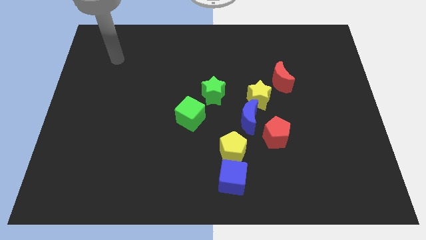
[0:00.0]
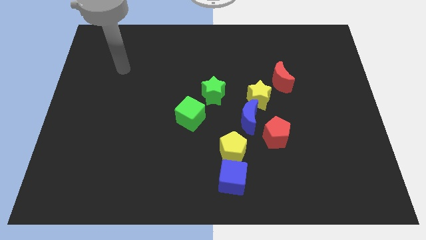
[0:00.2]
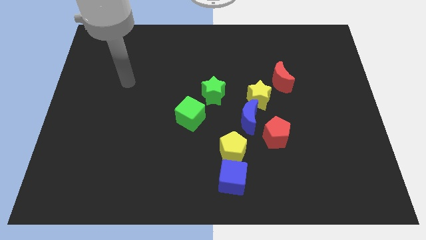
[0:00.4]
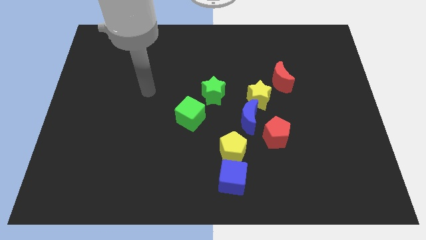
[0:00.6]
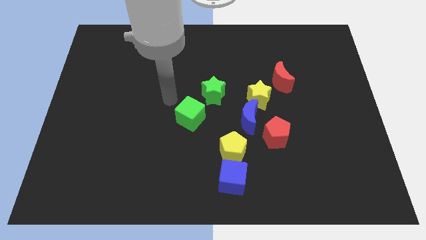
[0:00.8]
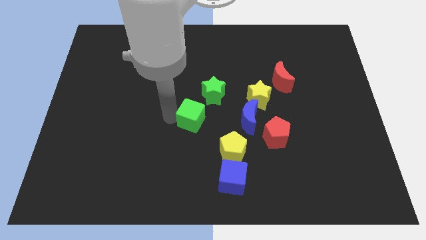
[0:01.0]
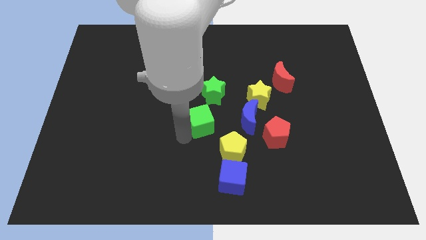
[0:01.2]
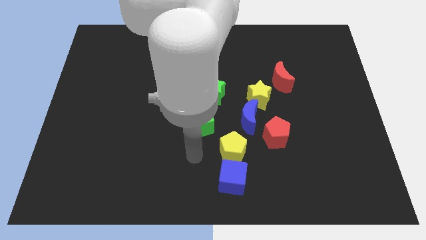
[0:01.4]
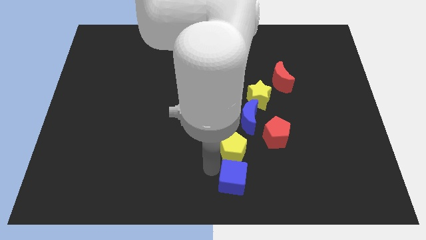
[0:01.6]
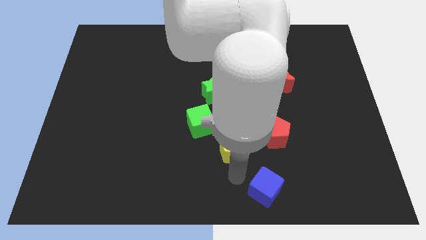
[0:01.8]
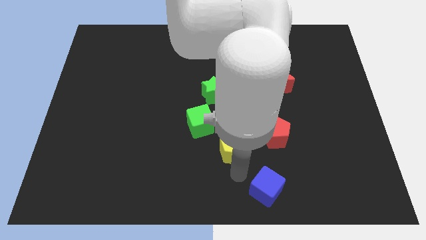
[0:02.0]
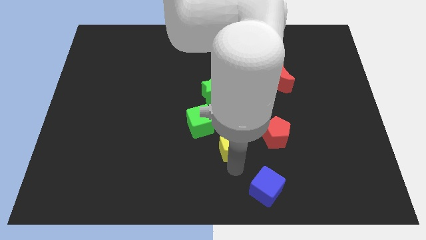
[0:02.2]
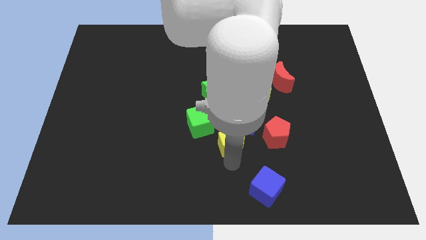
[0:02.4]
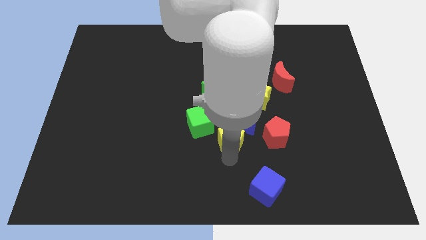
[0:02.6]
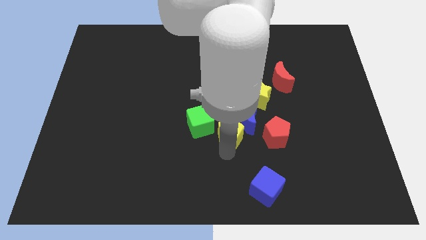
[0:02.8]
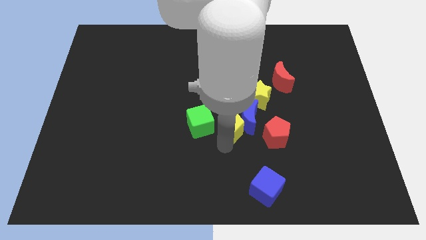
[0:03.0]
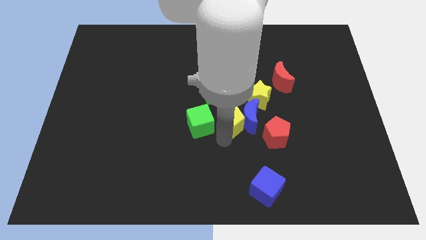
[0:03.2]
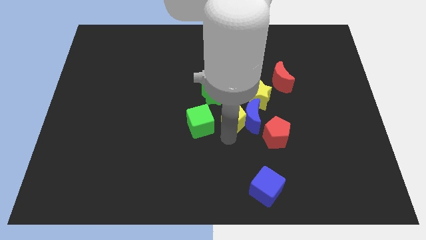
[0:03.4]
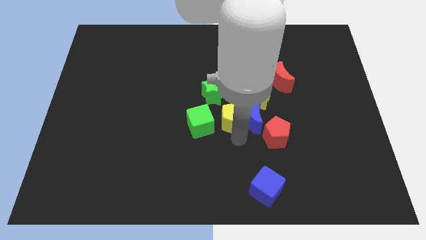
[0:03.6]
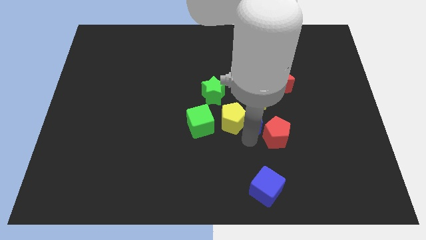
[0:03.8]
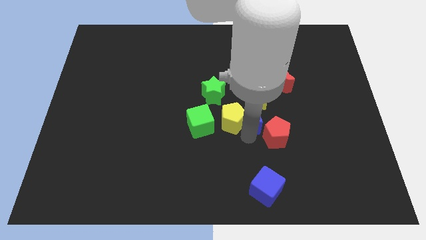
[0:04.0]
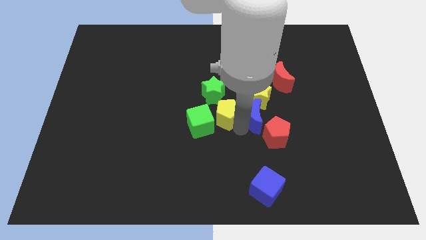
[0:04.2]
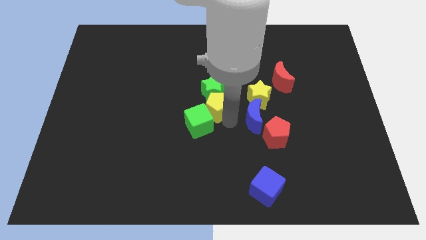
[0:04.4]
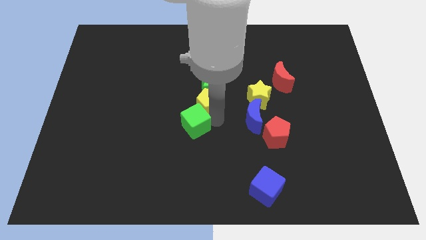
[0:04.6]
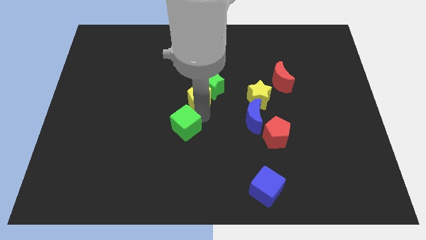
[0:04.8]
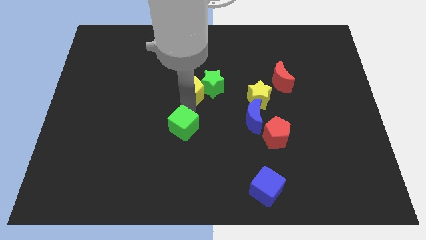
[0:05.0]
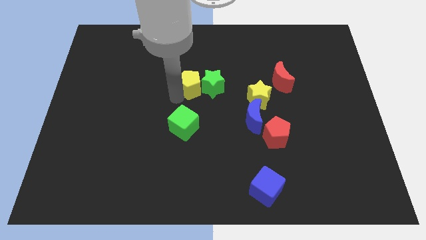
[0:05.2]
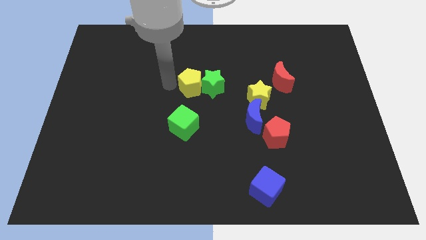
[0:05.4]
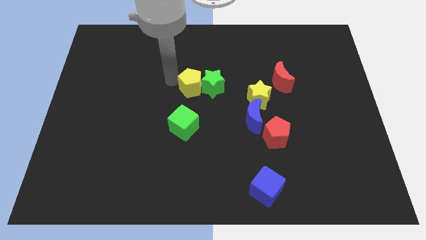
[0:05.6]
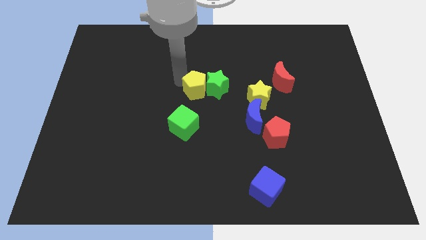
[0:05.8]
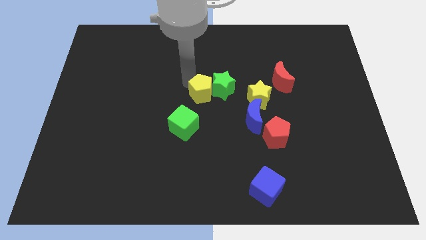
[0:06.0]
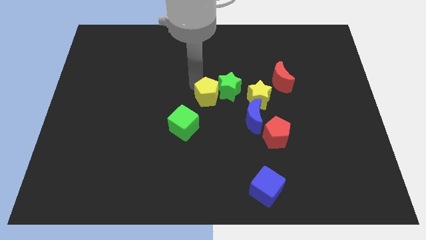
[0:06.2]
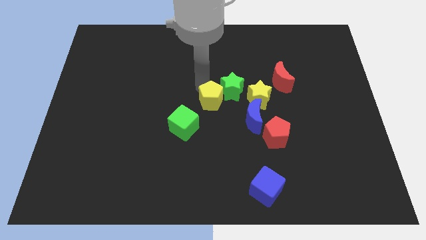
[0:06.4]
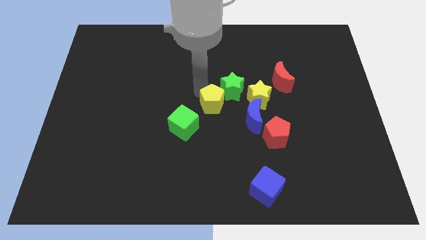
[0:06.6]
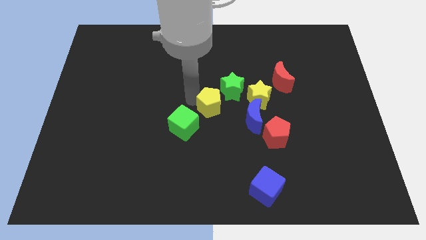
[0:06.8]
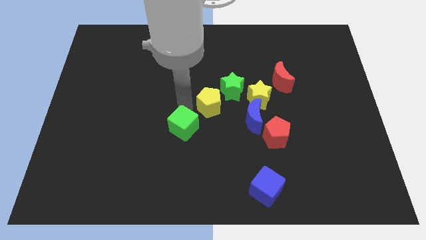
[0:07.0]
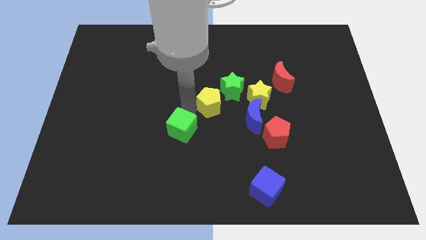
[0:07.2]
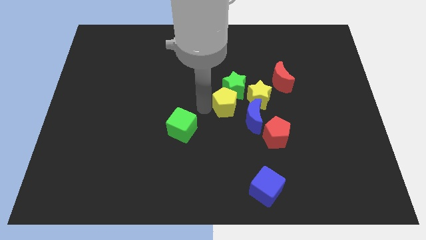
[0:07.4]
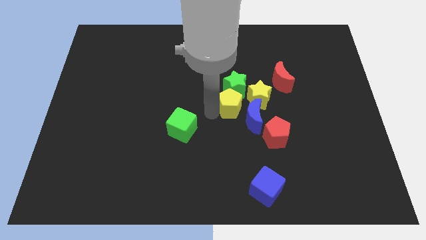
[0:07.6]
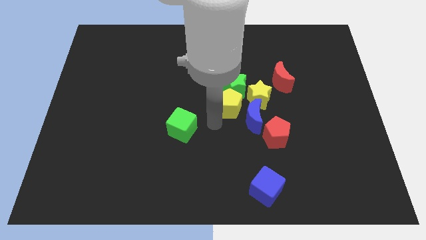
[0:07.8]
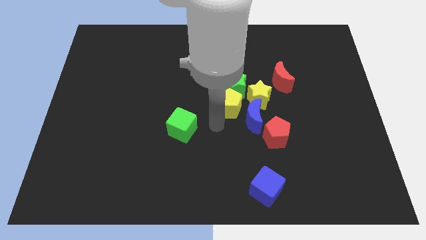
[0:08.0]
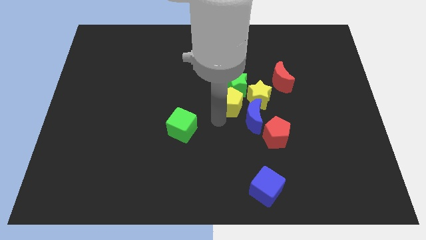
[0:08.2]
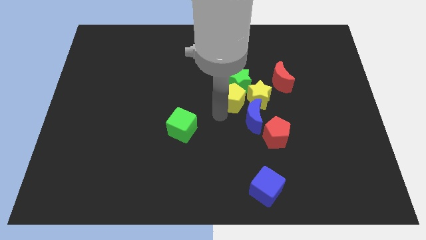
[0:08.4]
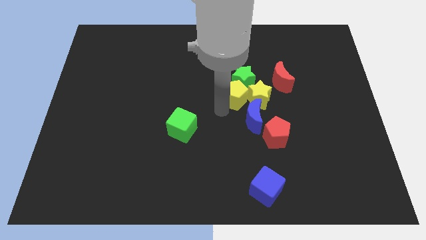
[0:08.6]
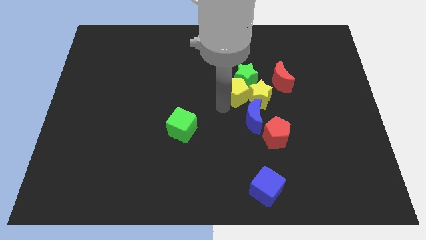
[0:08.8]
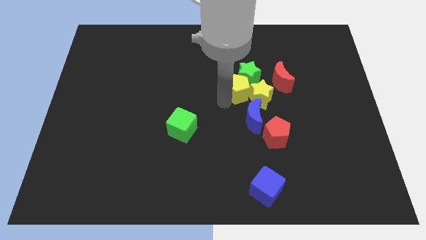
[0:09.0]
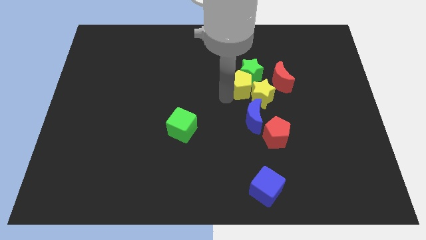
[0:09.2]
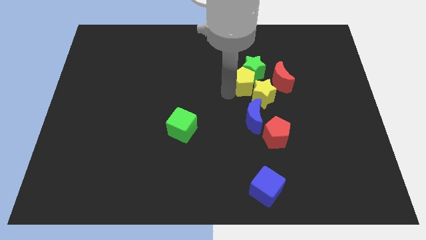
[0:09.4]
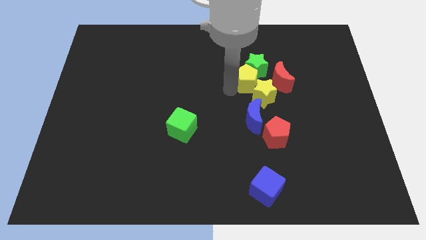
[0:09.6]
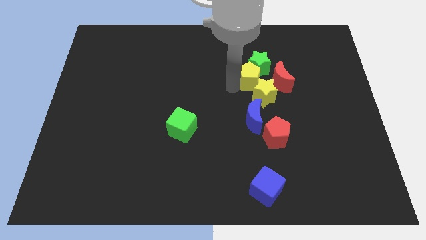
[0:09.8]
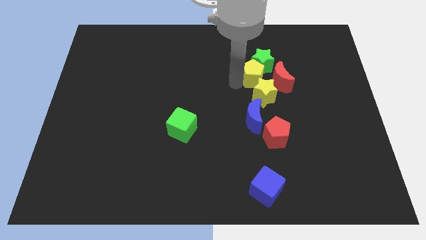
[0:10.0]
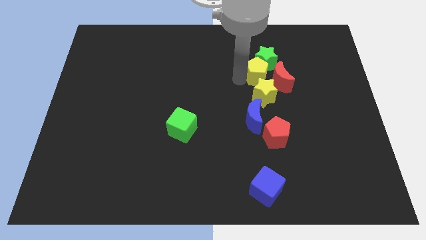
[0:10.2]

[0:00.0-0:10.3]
move the yellow pentagon next to the red moon

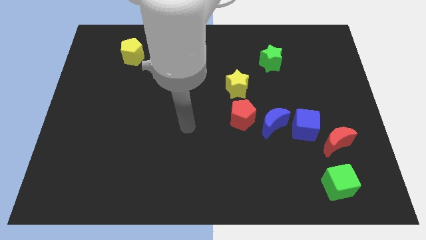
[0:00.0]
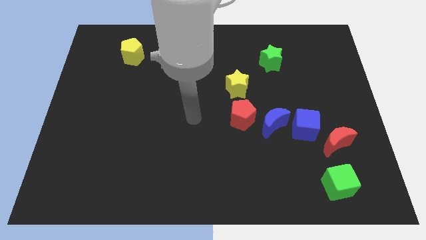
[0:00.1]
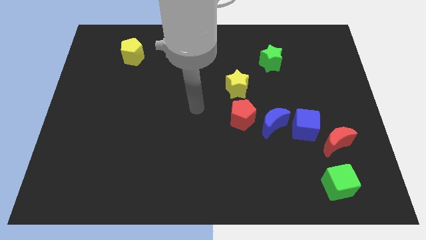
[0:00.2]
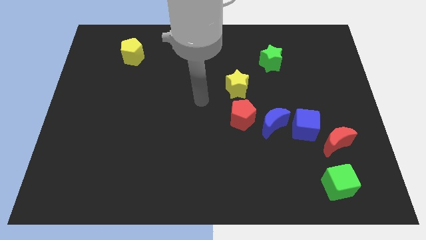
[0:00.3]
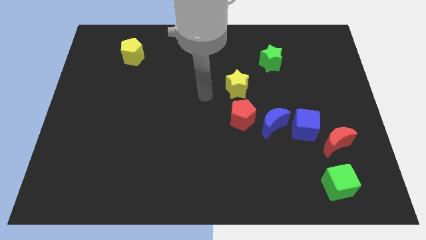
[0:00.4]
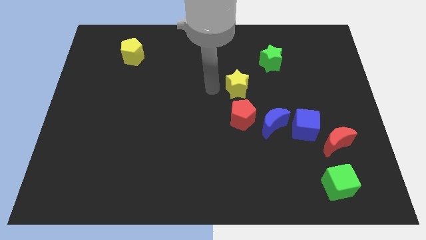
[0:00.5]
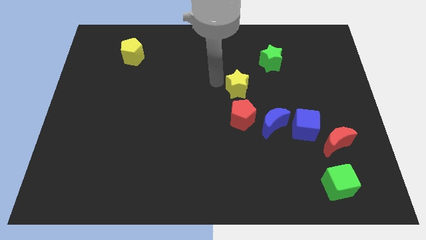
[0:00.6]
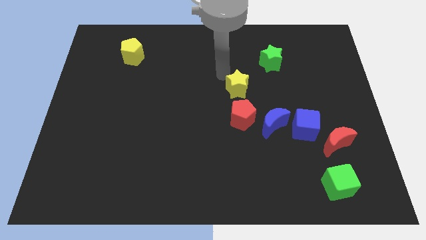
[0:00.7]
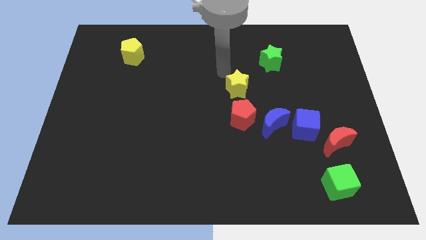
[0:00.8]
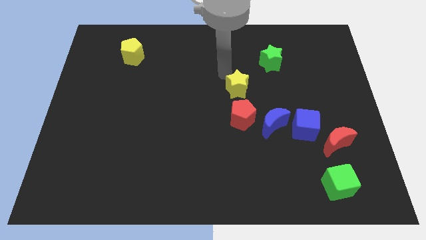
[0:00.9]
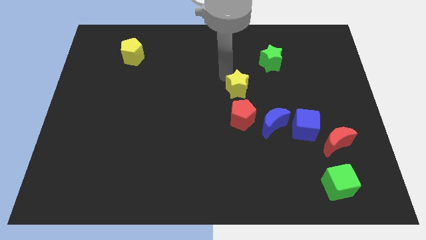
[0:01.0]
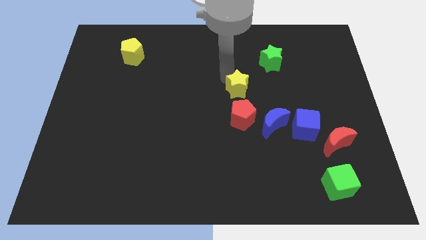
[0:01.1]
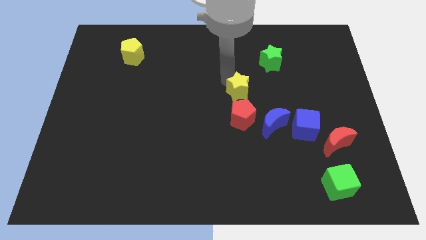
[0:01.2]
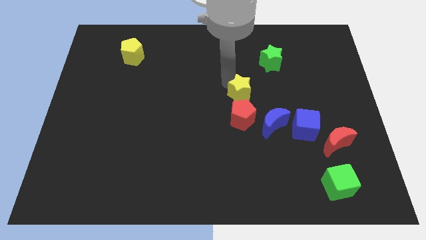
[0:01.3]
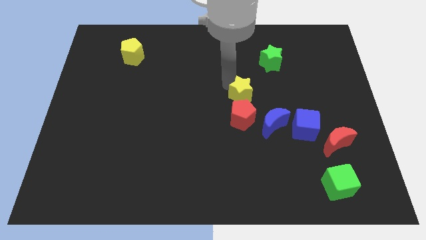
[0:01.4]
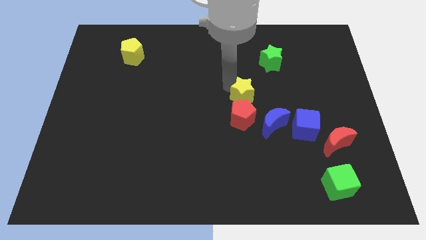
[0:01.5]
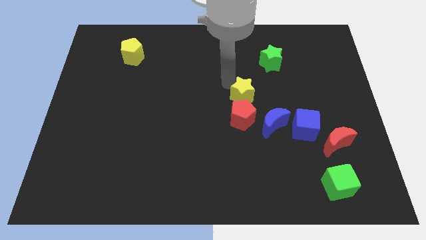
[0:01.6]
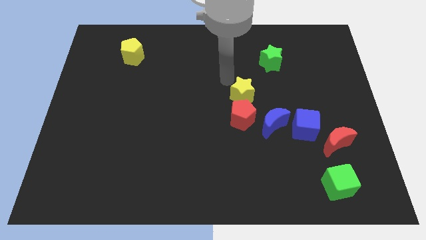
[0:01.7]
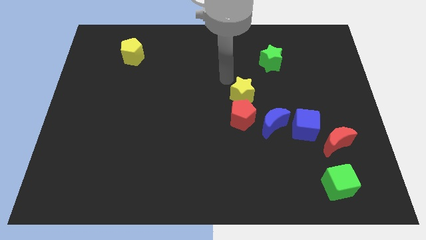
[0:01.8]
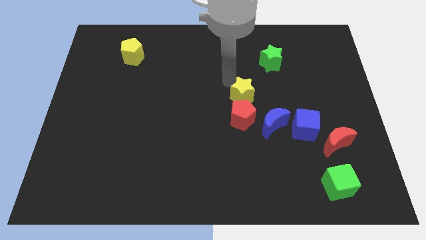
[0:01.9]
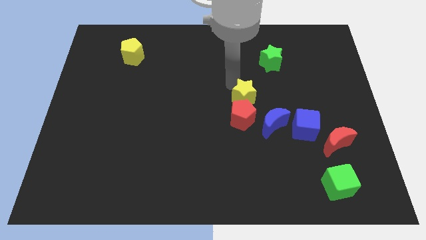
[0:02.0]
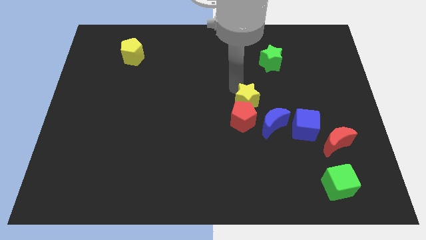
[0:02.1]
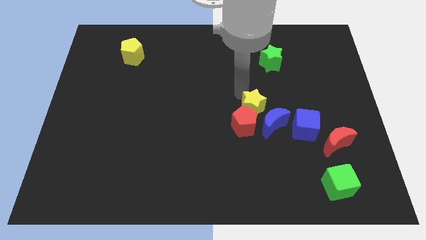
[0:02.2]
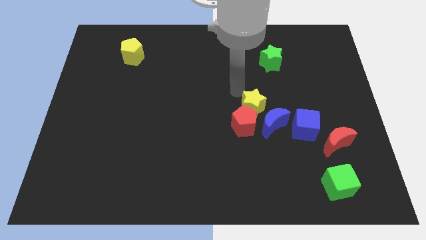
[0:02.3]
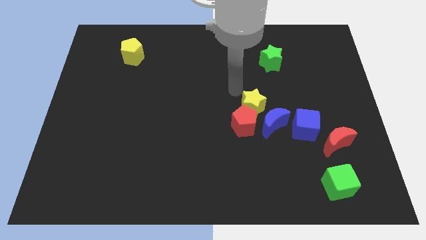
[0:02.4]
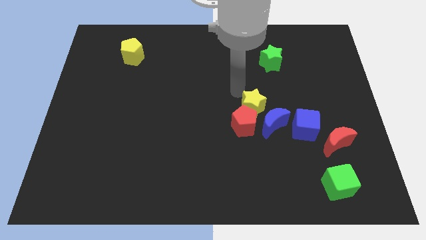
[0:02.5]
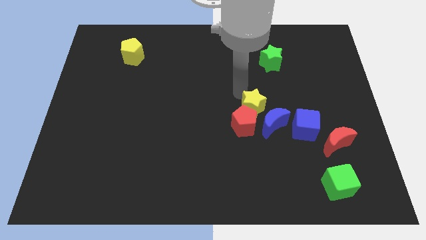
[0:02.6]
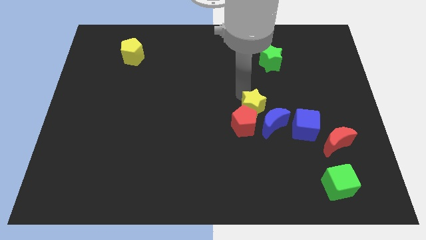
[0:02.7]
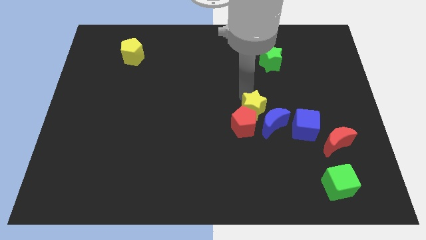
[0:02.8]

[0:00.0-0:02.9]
put the yellow star next to the blue moon
